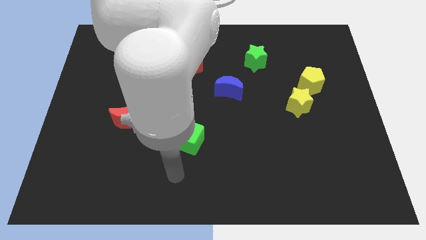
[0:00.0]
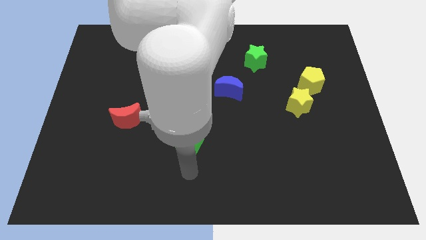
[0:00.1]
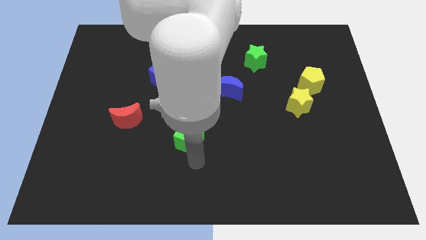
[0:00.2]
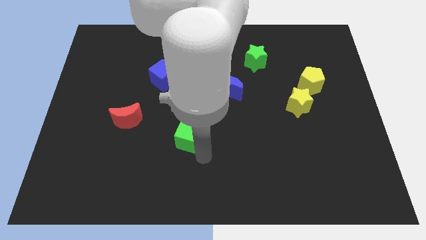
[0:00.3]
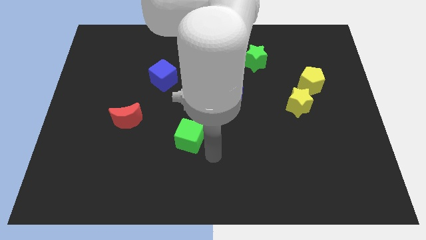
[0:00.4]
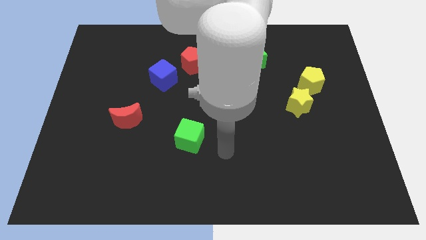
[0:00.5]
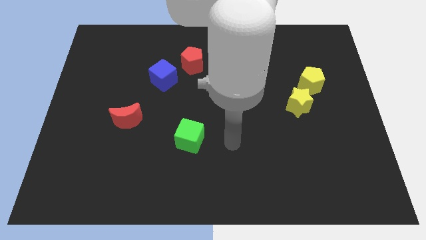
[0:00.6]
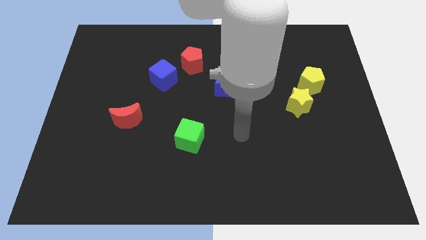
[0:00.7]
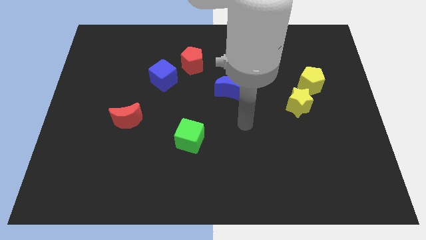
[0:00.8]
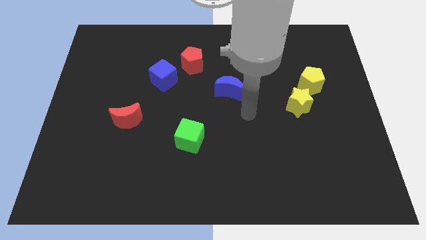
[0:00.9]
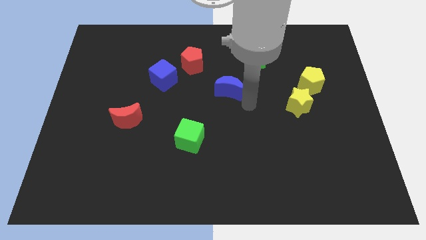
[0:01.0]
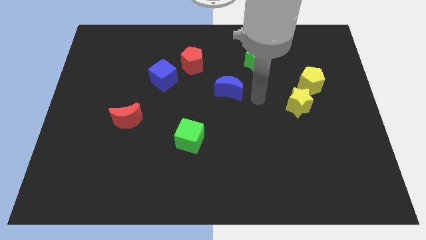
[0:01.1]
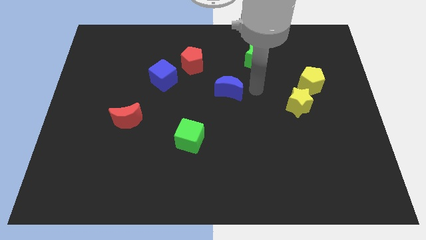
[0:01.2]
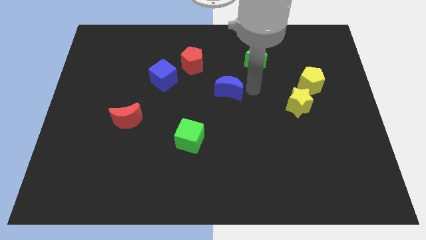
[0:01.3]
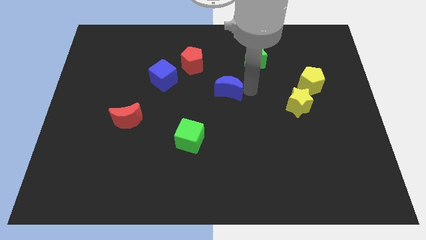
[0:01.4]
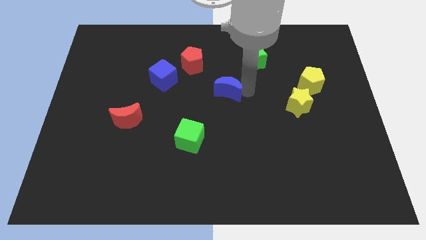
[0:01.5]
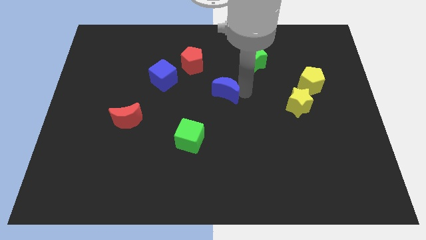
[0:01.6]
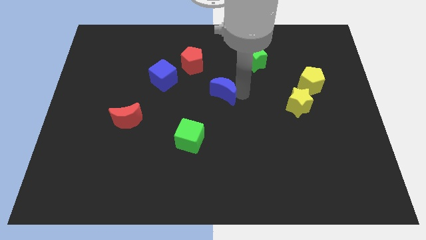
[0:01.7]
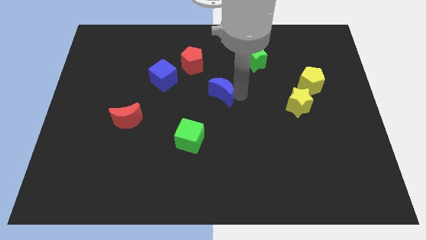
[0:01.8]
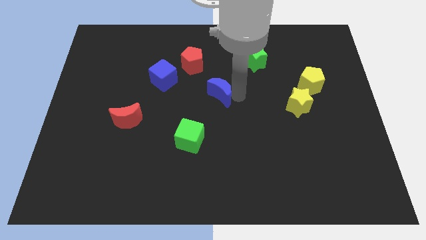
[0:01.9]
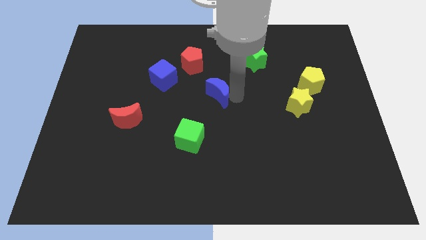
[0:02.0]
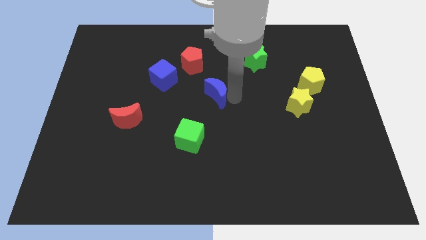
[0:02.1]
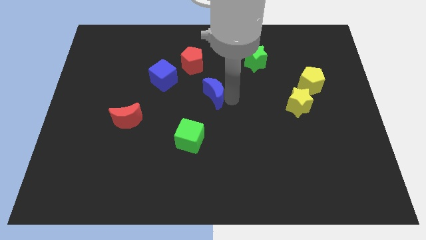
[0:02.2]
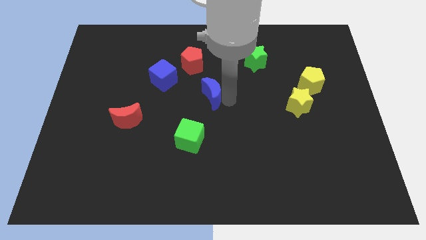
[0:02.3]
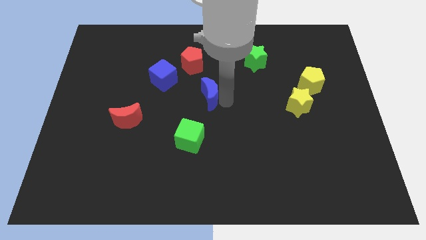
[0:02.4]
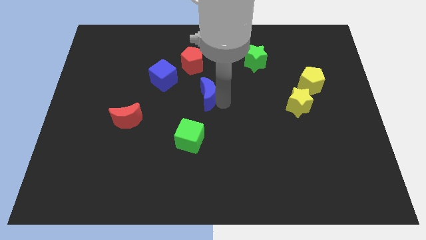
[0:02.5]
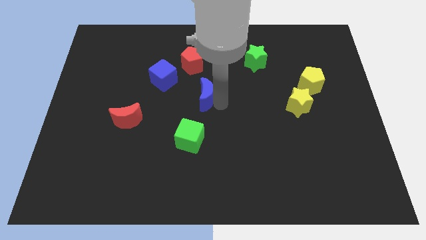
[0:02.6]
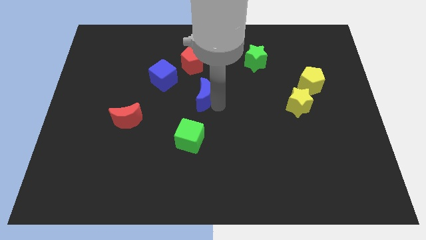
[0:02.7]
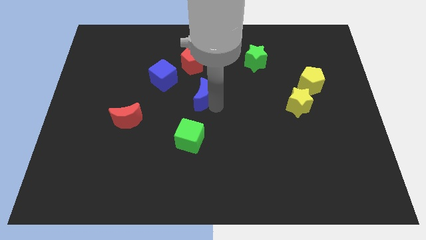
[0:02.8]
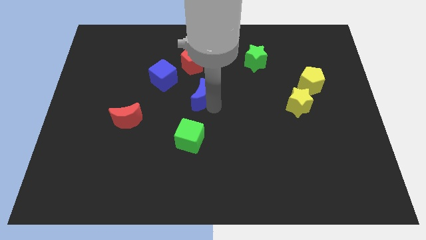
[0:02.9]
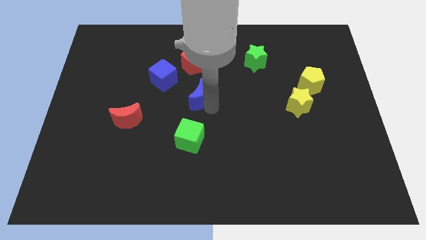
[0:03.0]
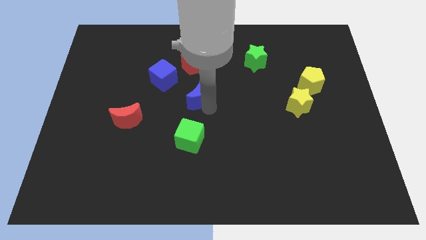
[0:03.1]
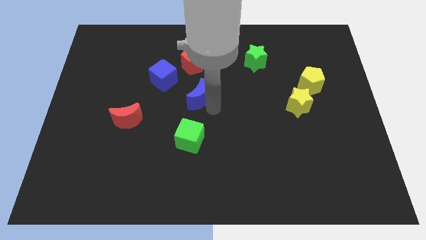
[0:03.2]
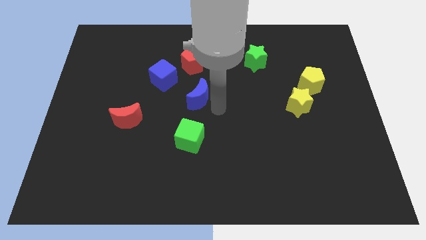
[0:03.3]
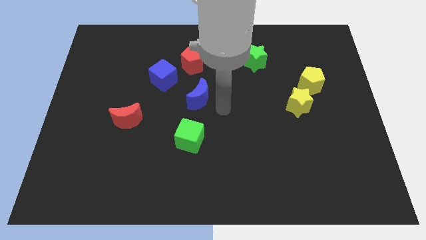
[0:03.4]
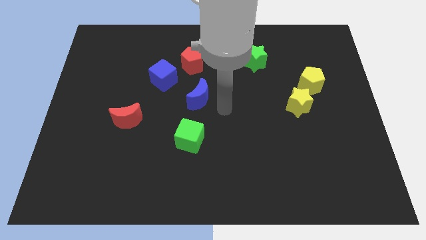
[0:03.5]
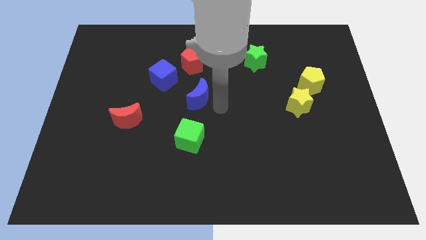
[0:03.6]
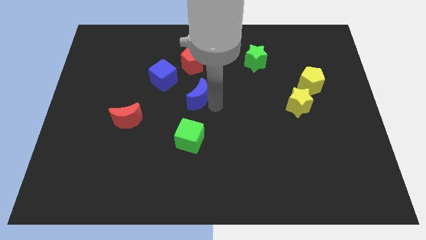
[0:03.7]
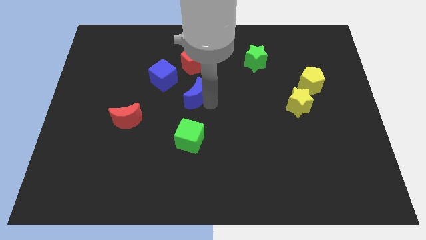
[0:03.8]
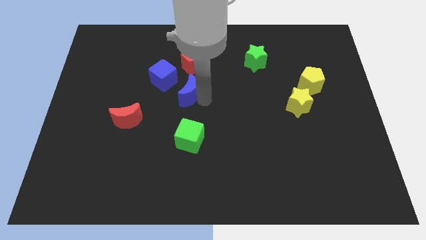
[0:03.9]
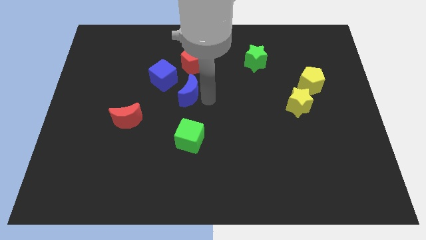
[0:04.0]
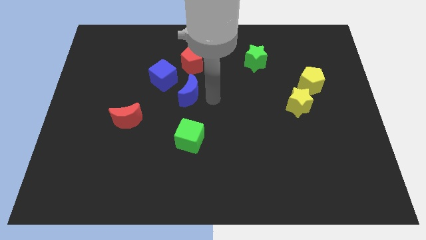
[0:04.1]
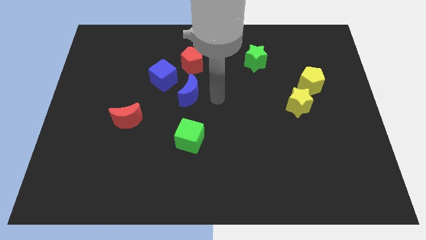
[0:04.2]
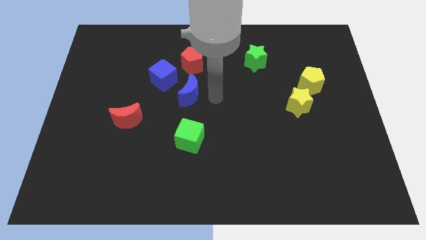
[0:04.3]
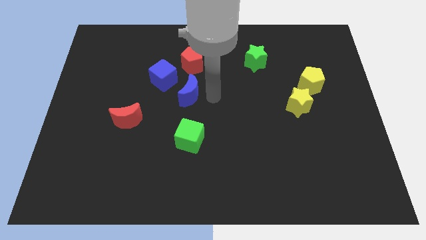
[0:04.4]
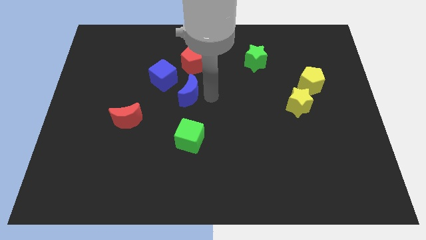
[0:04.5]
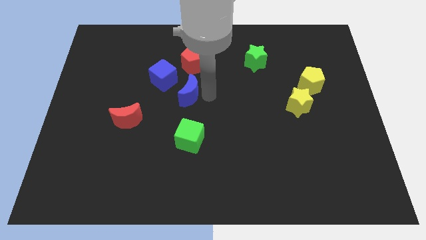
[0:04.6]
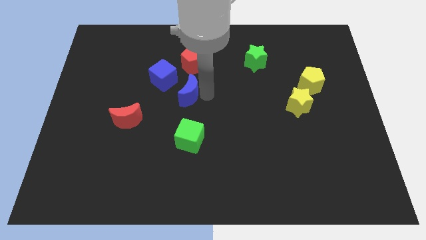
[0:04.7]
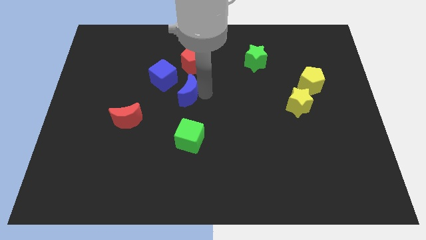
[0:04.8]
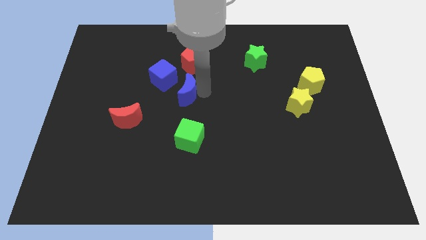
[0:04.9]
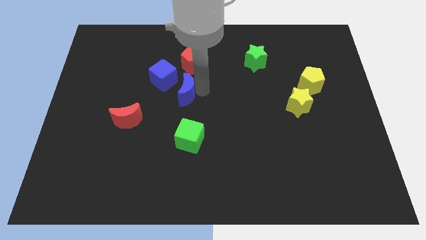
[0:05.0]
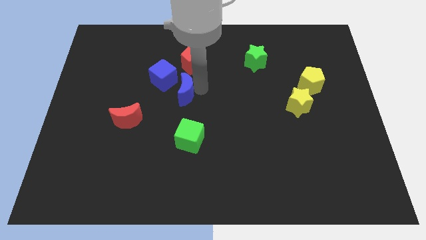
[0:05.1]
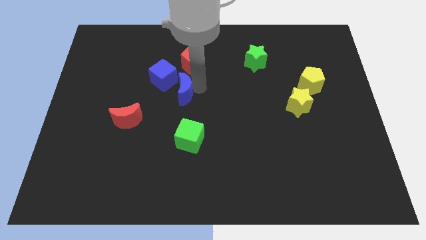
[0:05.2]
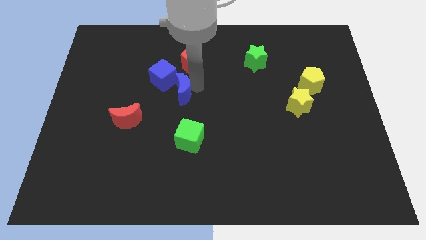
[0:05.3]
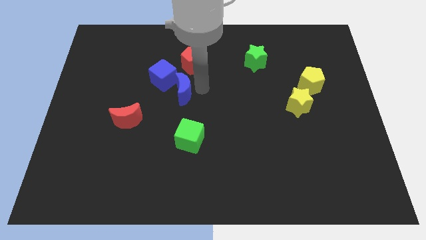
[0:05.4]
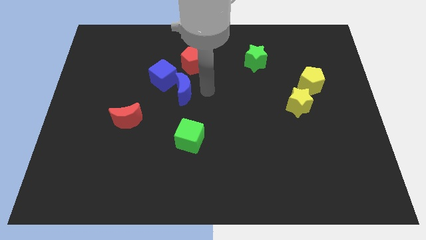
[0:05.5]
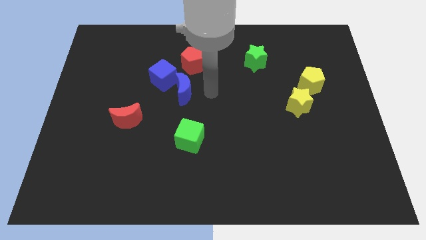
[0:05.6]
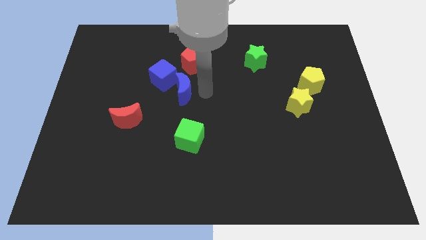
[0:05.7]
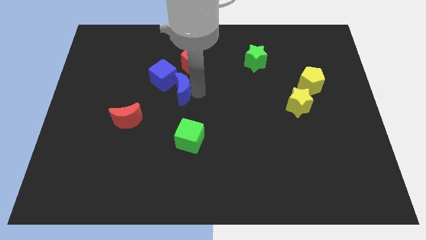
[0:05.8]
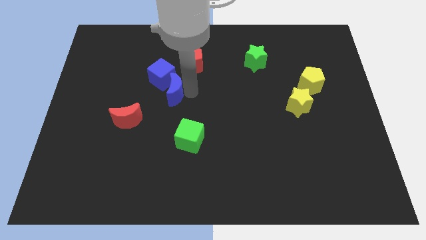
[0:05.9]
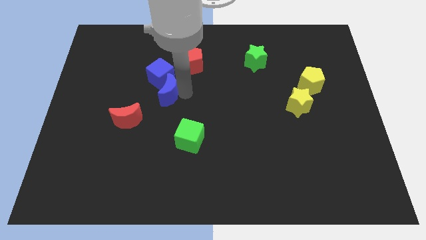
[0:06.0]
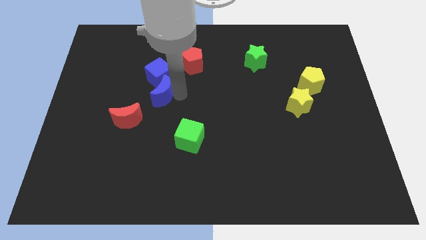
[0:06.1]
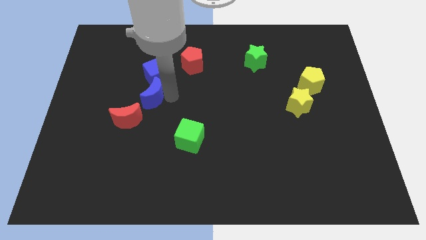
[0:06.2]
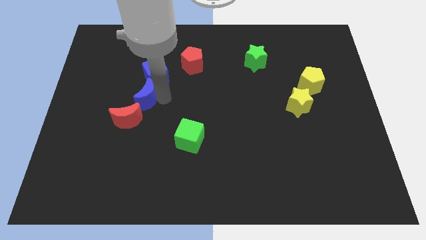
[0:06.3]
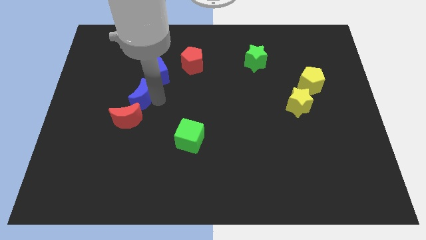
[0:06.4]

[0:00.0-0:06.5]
push the blue moon to the left

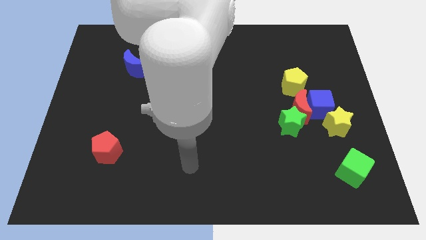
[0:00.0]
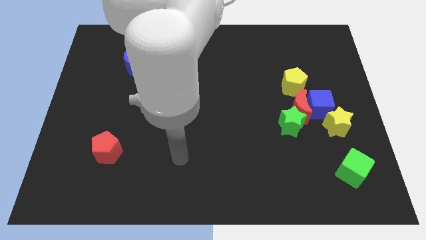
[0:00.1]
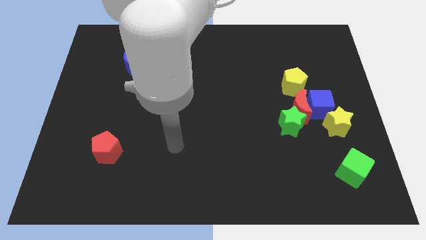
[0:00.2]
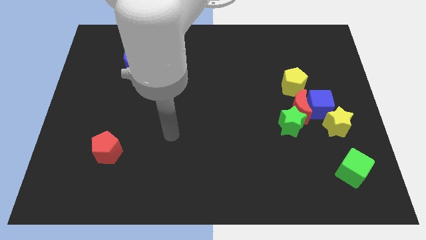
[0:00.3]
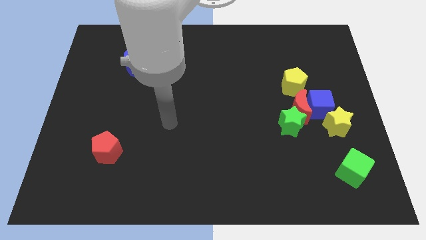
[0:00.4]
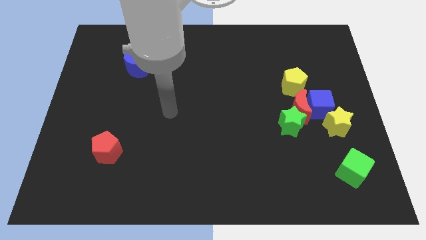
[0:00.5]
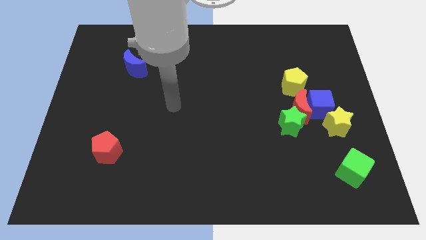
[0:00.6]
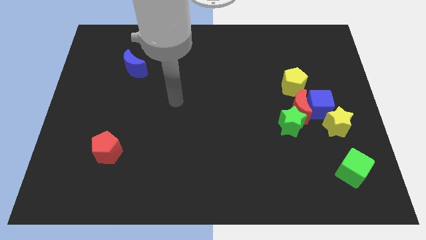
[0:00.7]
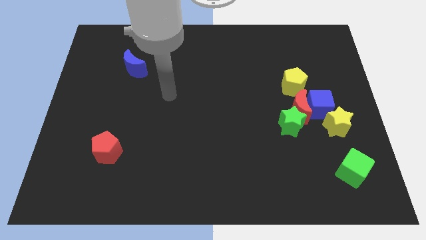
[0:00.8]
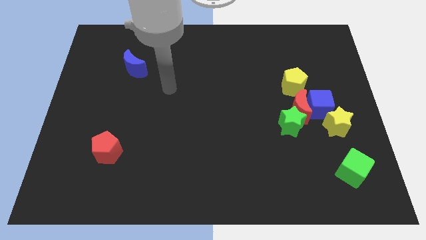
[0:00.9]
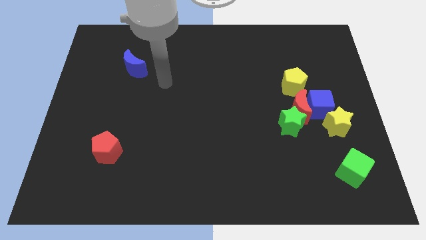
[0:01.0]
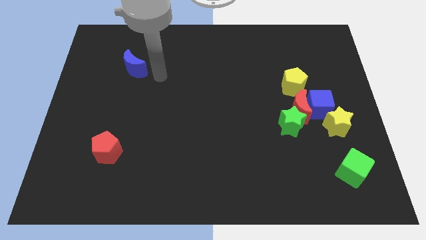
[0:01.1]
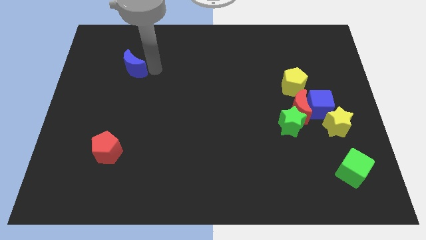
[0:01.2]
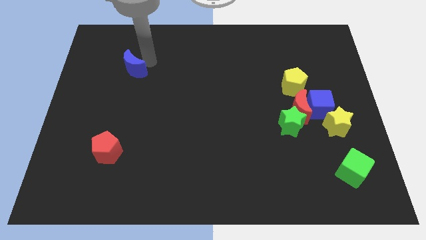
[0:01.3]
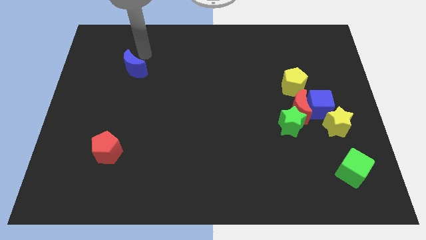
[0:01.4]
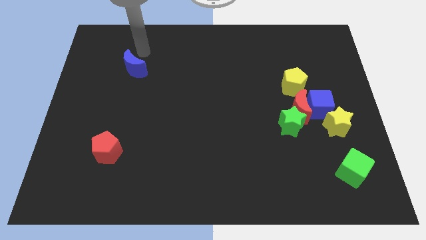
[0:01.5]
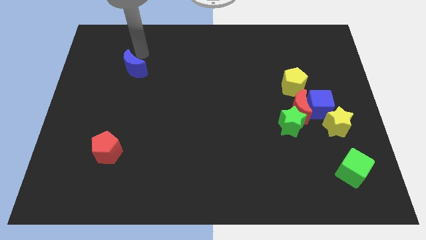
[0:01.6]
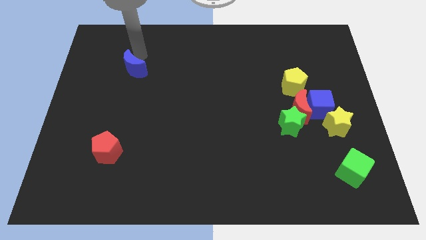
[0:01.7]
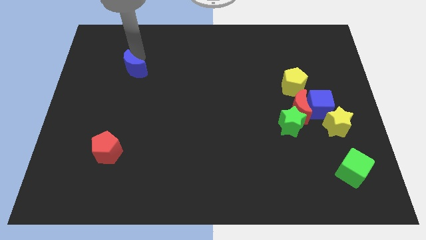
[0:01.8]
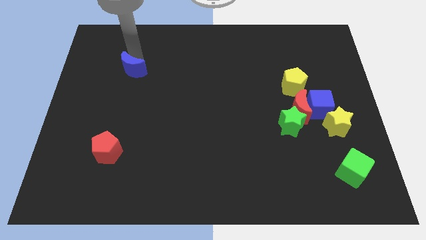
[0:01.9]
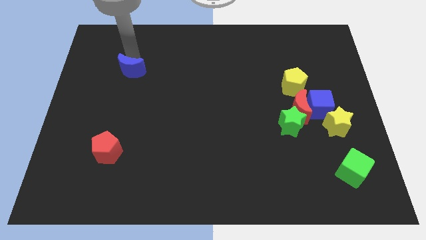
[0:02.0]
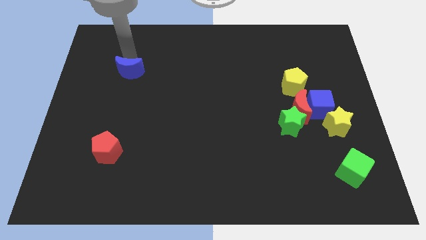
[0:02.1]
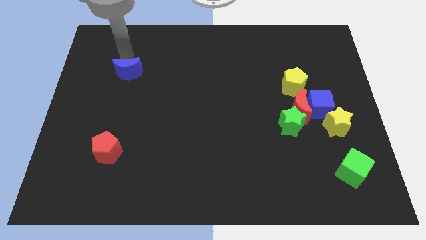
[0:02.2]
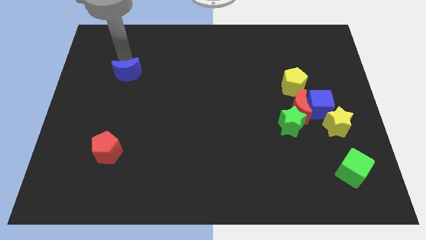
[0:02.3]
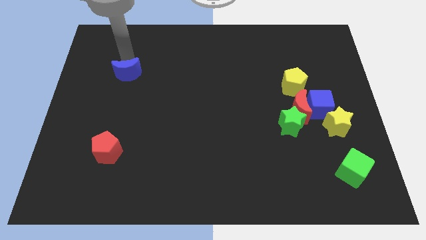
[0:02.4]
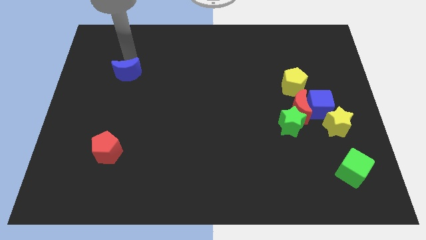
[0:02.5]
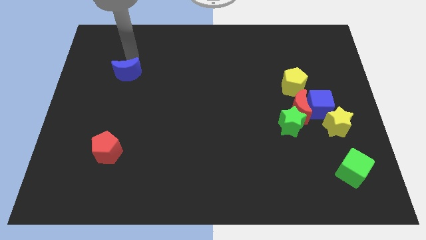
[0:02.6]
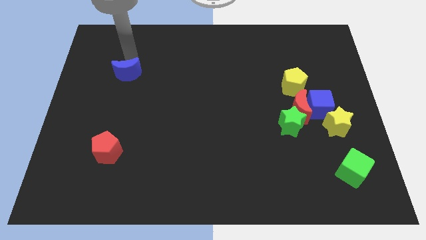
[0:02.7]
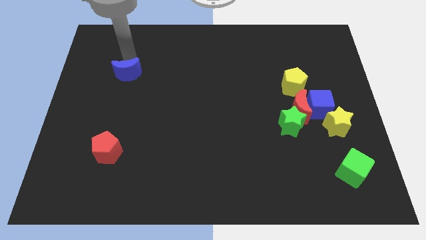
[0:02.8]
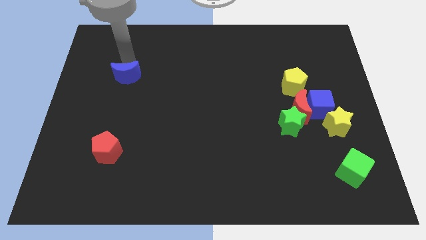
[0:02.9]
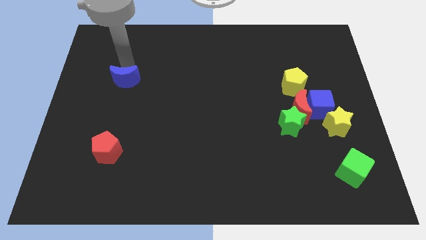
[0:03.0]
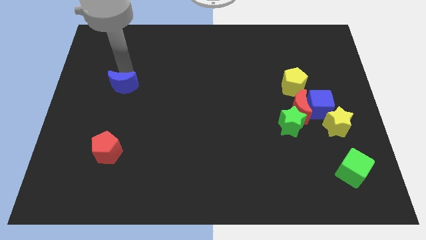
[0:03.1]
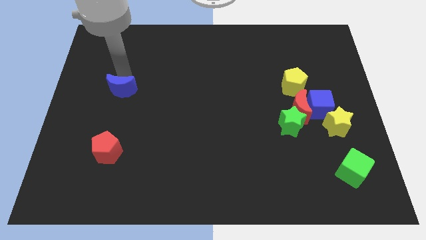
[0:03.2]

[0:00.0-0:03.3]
push the blue moon down somewhat
